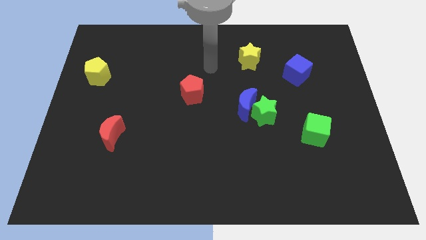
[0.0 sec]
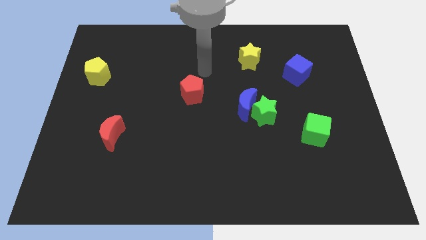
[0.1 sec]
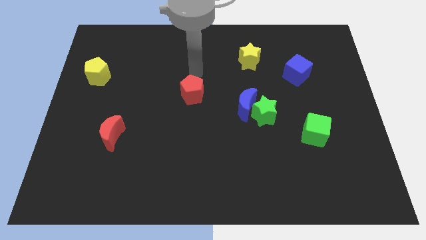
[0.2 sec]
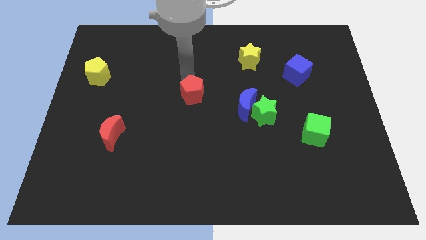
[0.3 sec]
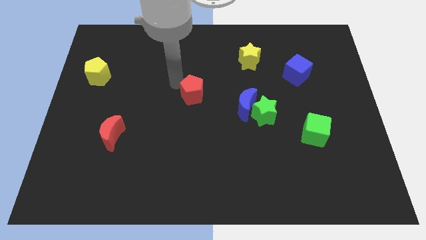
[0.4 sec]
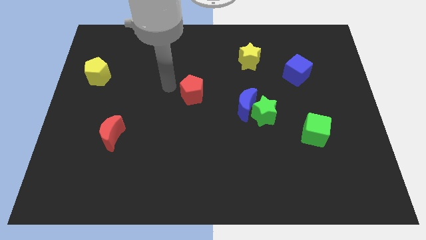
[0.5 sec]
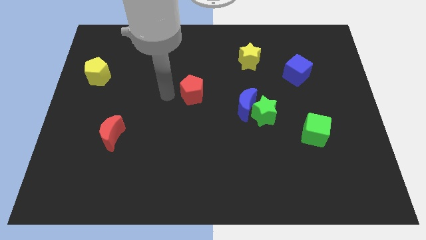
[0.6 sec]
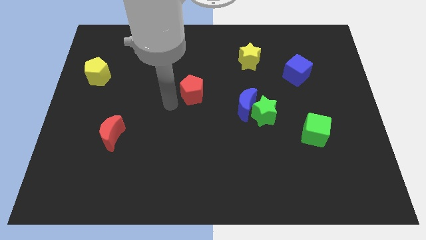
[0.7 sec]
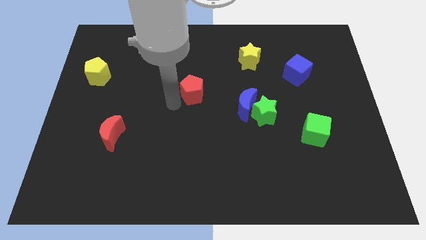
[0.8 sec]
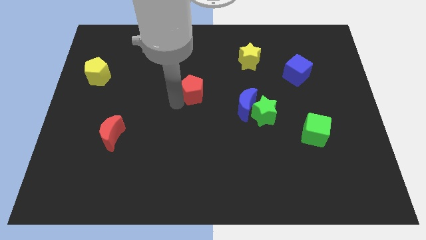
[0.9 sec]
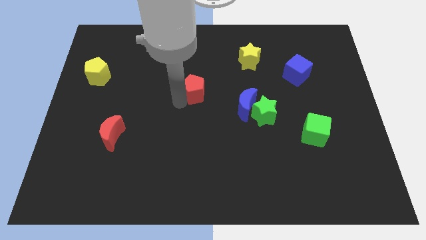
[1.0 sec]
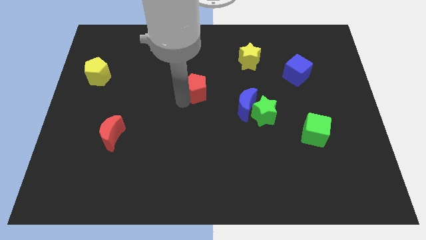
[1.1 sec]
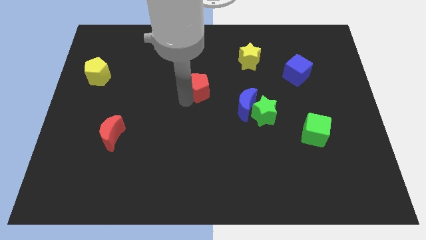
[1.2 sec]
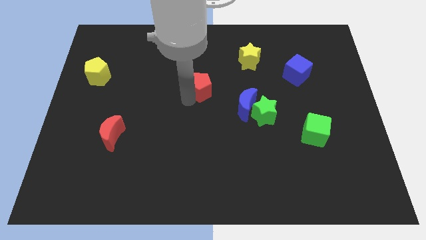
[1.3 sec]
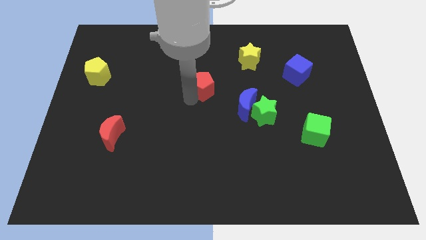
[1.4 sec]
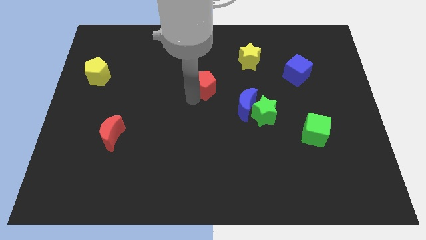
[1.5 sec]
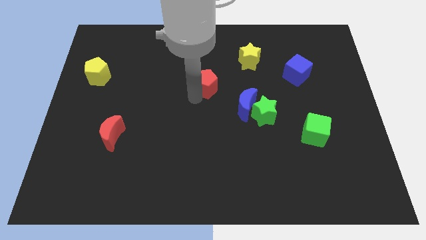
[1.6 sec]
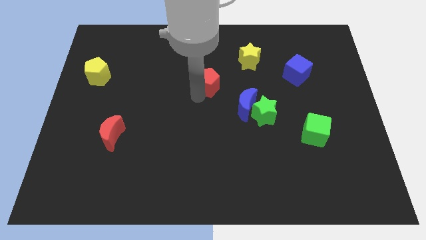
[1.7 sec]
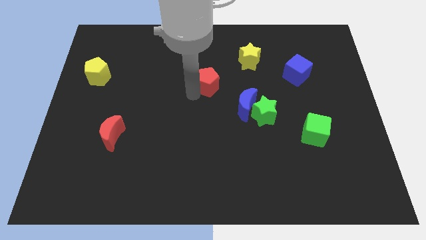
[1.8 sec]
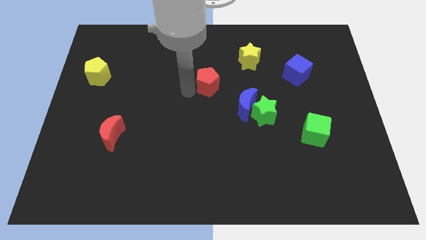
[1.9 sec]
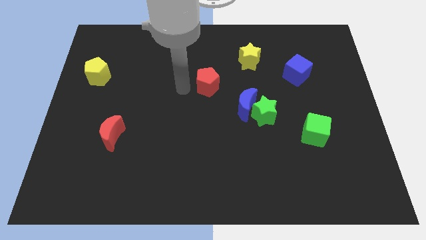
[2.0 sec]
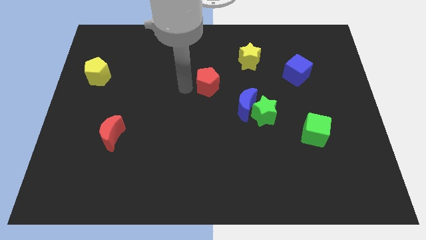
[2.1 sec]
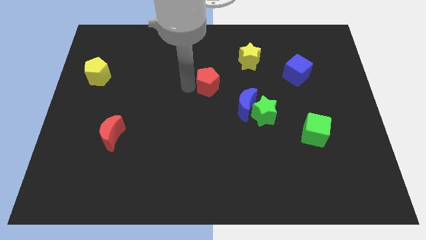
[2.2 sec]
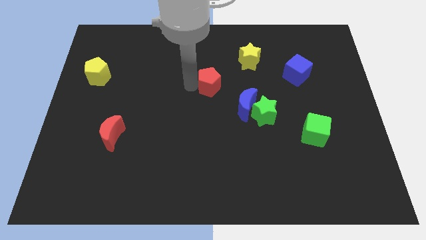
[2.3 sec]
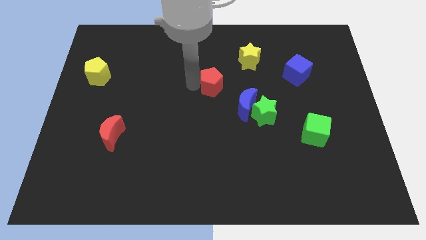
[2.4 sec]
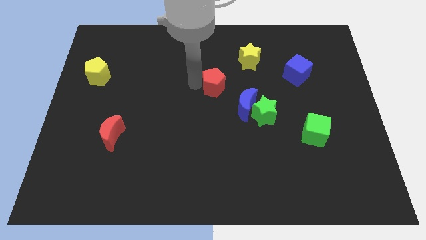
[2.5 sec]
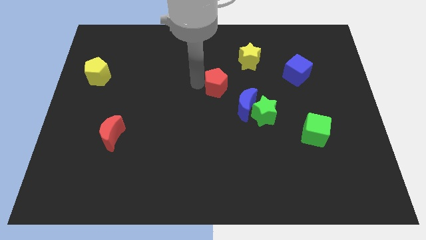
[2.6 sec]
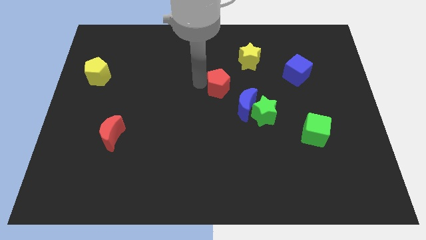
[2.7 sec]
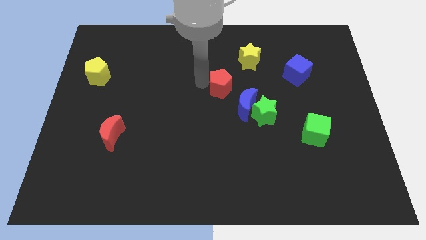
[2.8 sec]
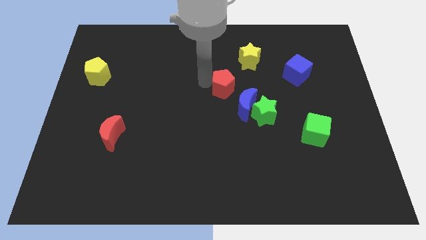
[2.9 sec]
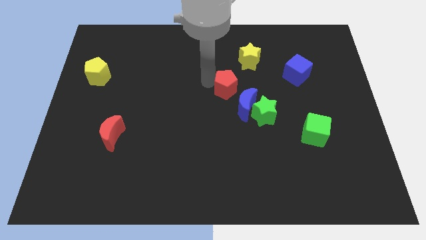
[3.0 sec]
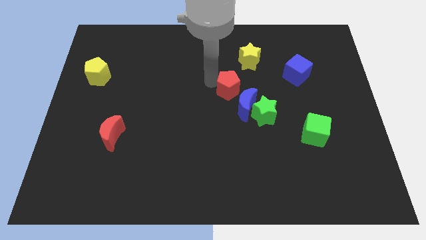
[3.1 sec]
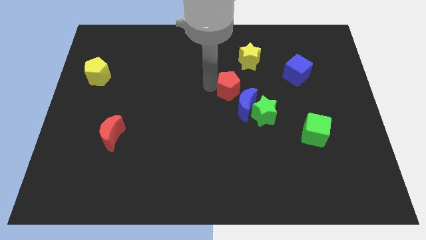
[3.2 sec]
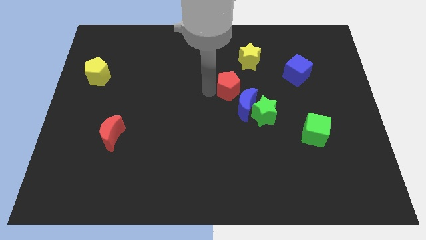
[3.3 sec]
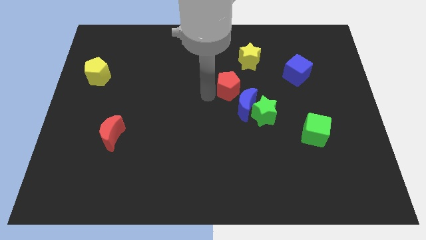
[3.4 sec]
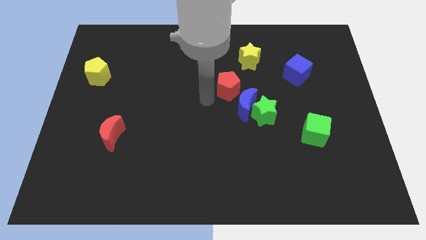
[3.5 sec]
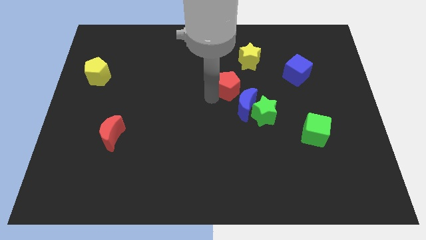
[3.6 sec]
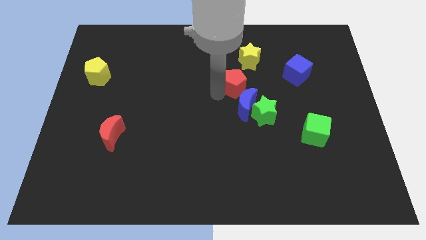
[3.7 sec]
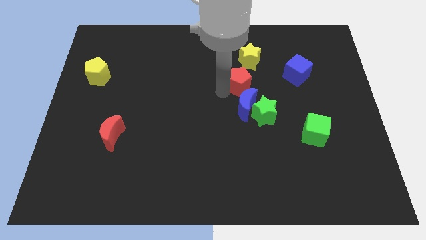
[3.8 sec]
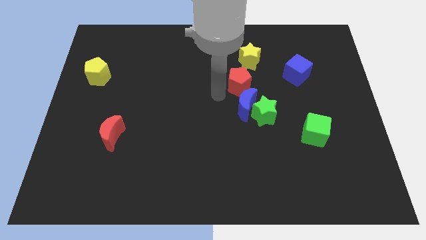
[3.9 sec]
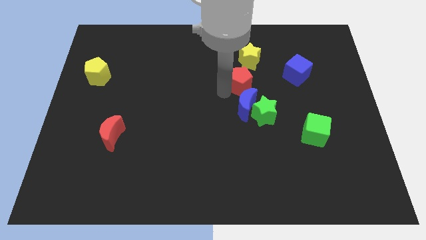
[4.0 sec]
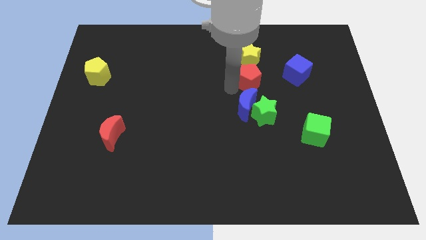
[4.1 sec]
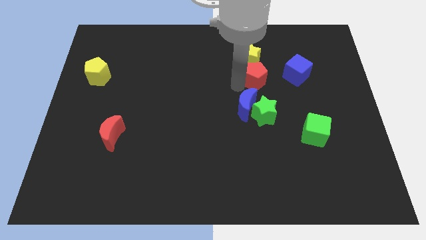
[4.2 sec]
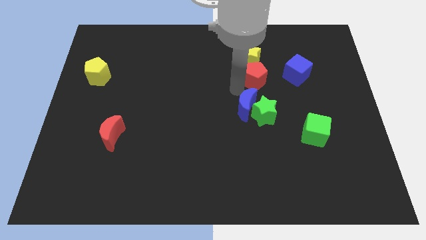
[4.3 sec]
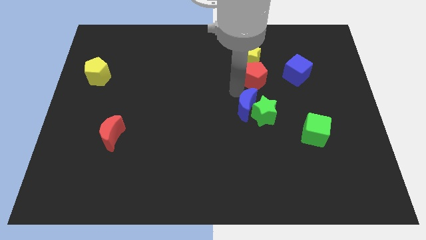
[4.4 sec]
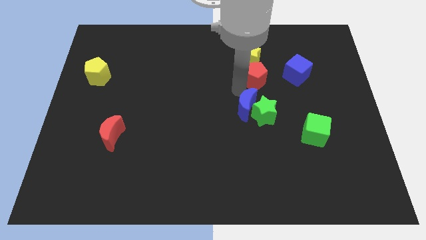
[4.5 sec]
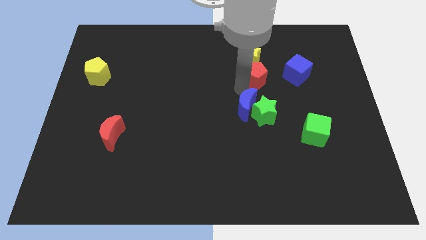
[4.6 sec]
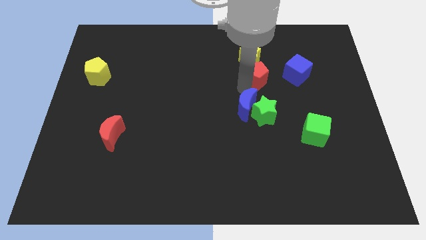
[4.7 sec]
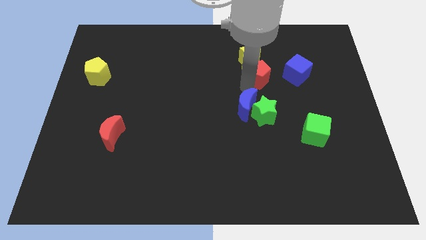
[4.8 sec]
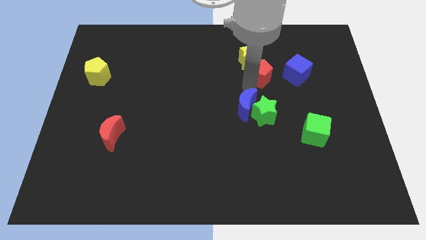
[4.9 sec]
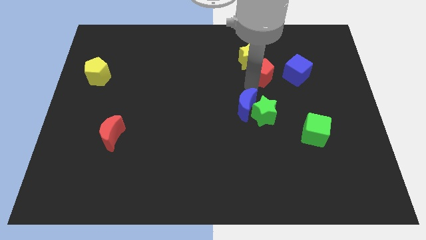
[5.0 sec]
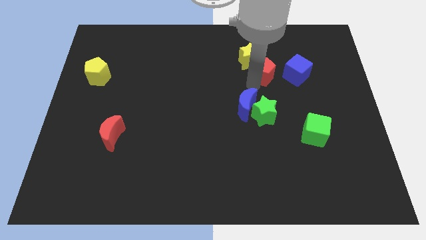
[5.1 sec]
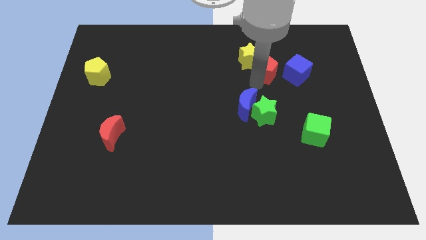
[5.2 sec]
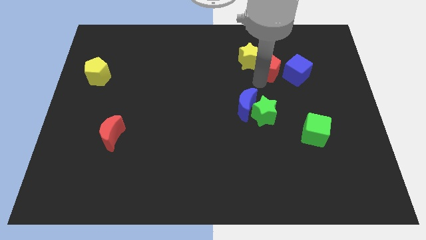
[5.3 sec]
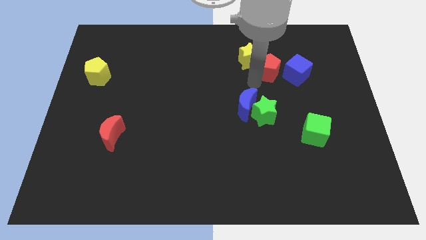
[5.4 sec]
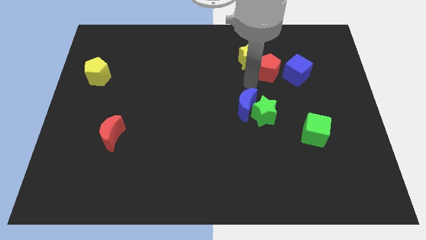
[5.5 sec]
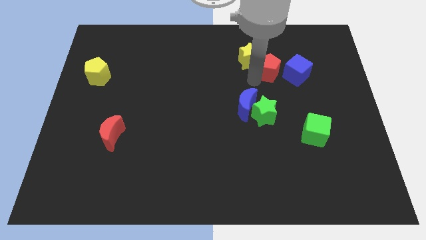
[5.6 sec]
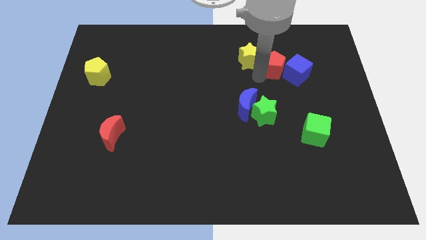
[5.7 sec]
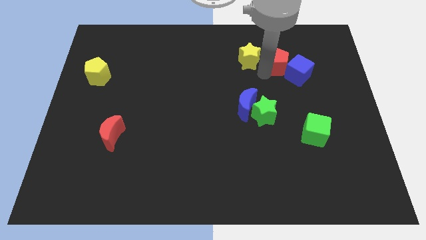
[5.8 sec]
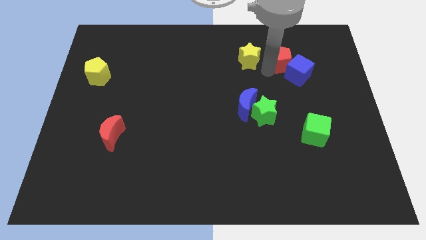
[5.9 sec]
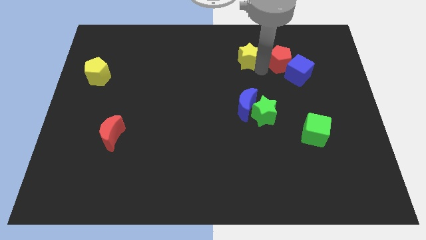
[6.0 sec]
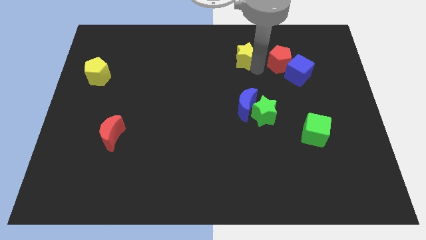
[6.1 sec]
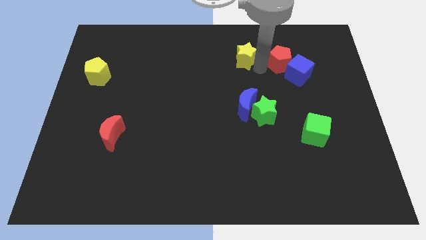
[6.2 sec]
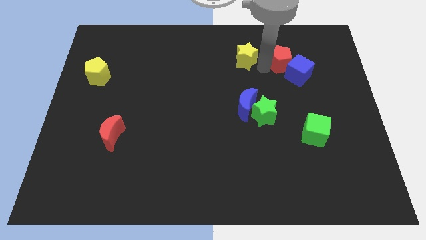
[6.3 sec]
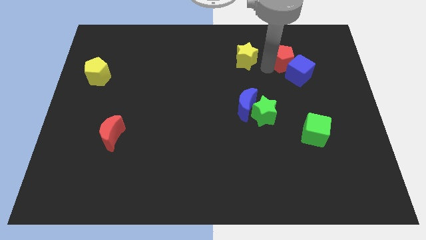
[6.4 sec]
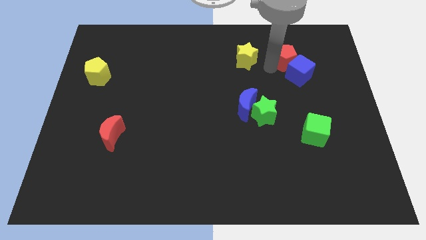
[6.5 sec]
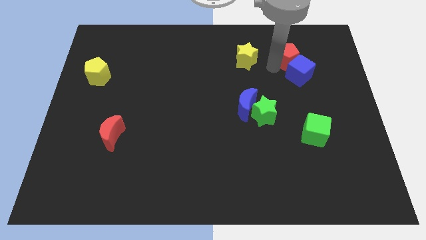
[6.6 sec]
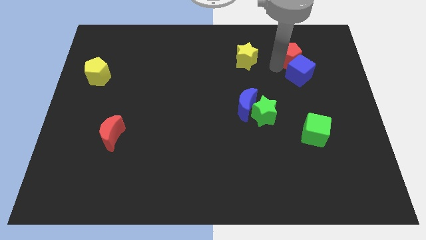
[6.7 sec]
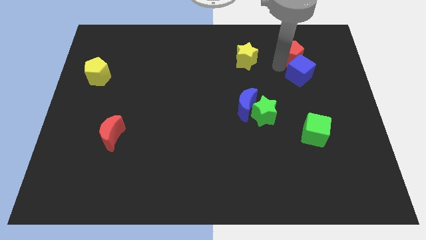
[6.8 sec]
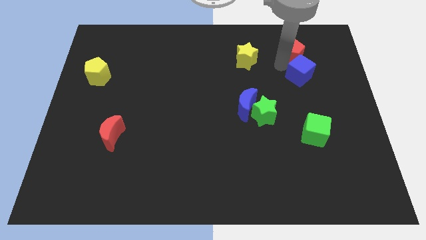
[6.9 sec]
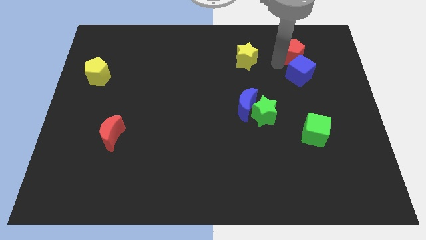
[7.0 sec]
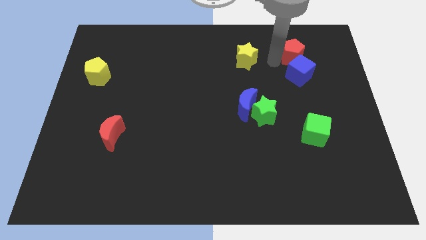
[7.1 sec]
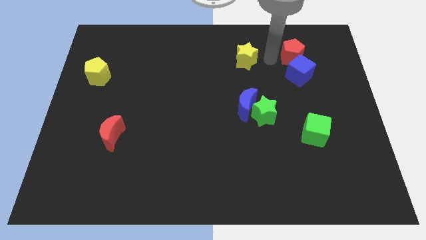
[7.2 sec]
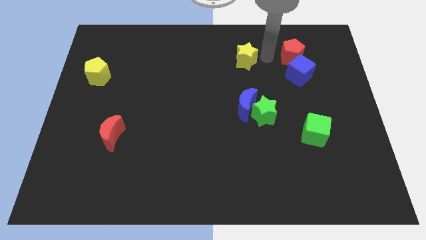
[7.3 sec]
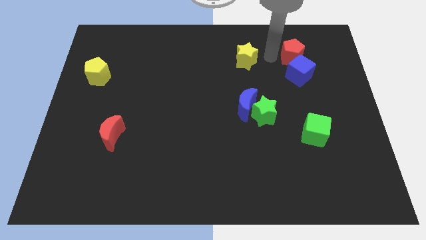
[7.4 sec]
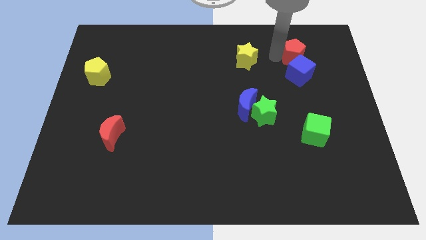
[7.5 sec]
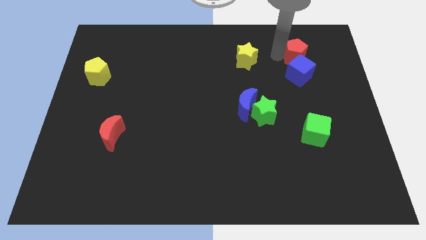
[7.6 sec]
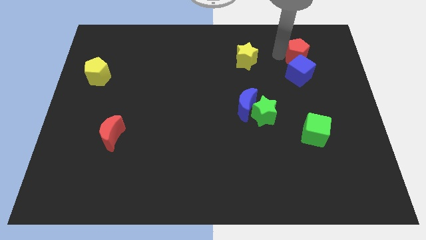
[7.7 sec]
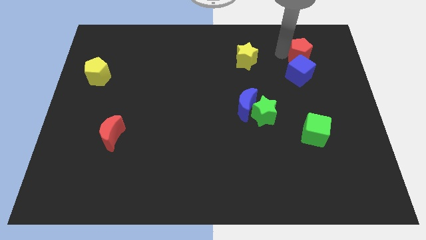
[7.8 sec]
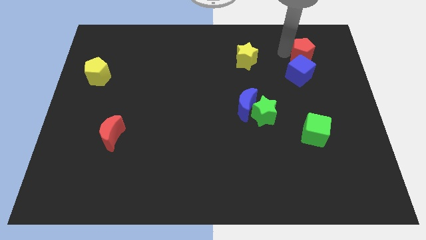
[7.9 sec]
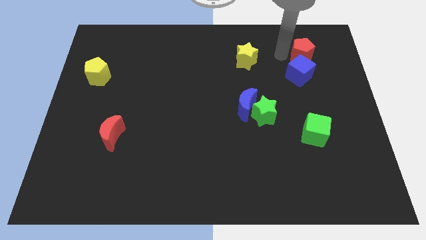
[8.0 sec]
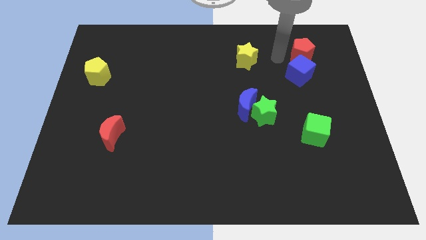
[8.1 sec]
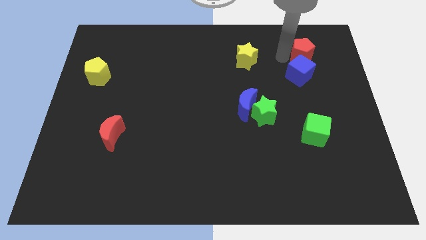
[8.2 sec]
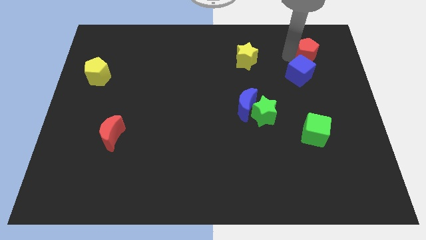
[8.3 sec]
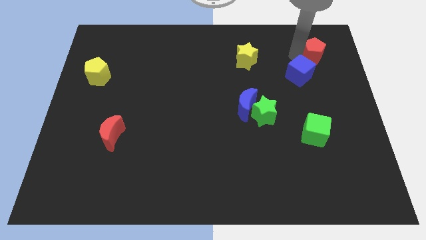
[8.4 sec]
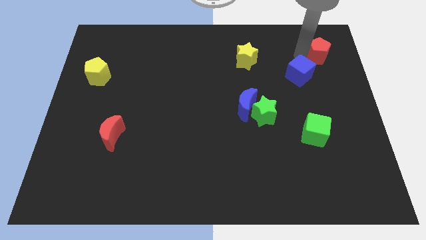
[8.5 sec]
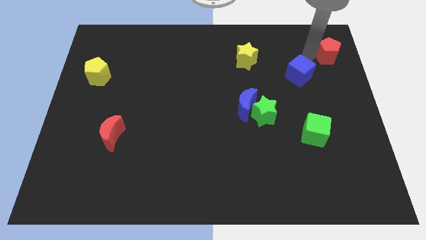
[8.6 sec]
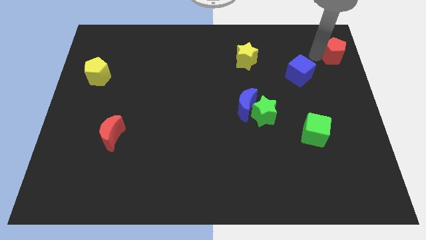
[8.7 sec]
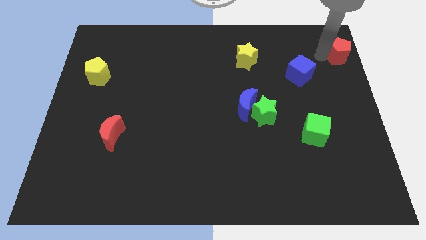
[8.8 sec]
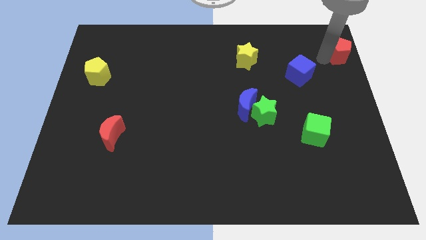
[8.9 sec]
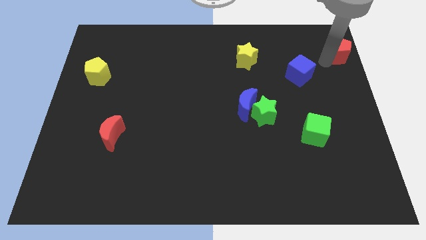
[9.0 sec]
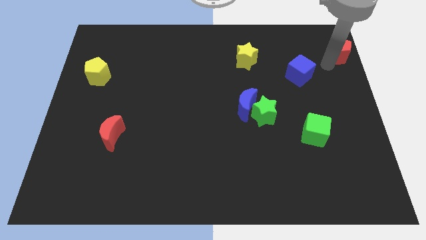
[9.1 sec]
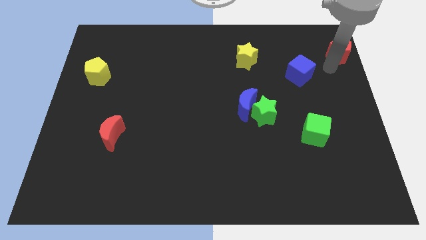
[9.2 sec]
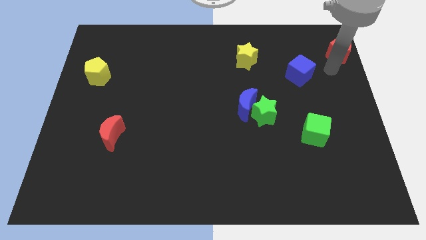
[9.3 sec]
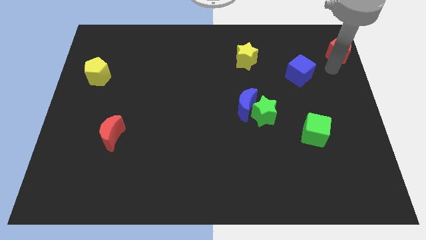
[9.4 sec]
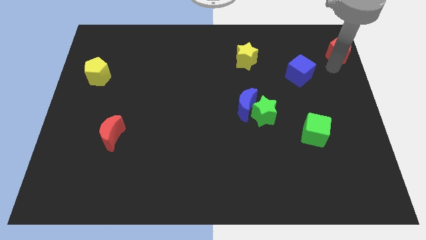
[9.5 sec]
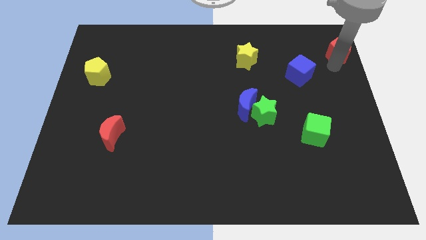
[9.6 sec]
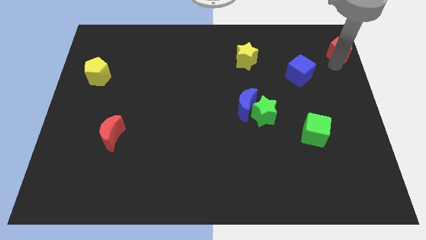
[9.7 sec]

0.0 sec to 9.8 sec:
put the red pentagon to the top right of the board
